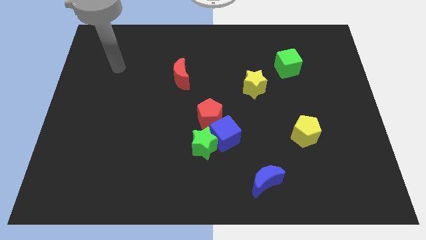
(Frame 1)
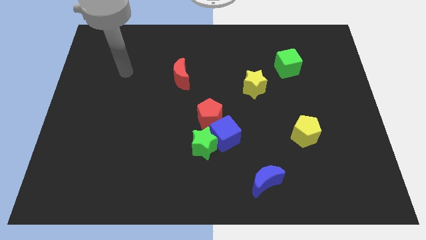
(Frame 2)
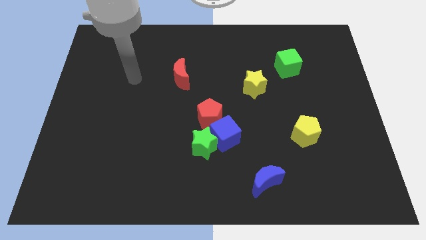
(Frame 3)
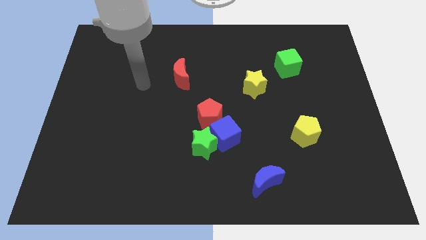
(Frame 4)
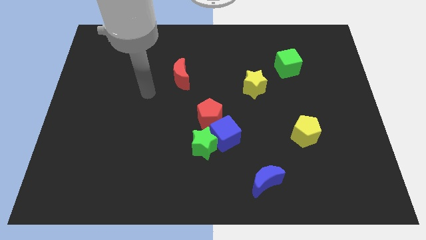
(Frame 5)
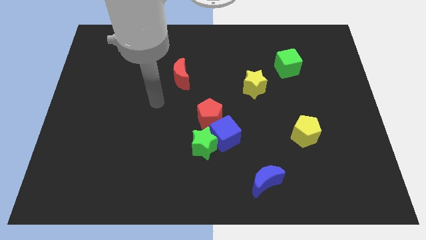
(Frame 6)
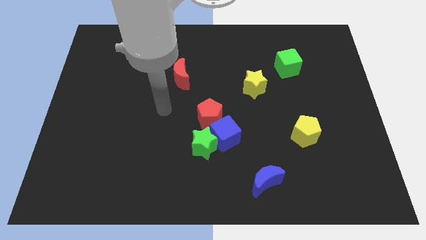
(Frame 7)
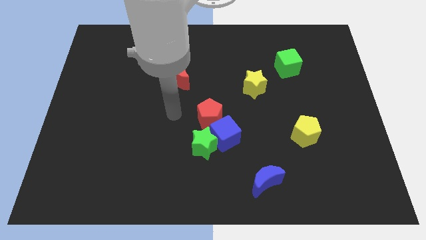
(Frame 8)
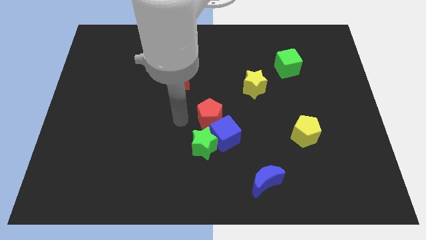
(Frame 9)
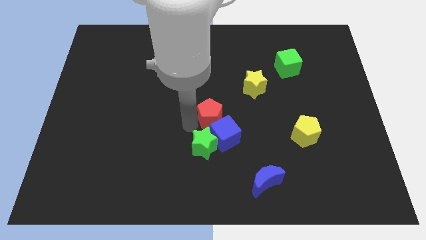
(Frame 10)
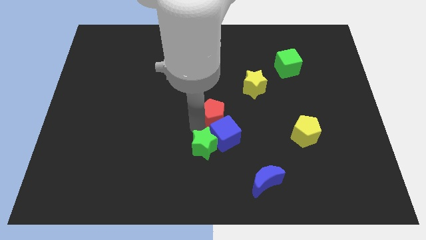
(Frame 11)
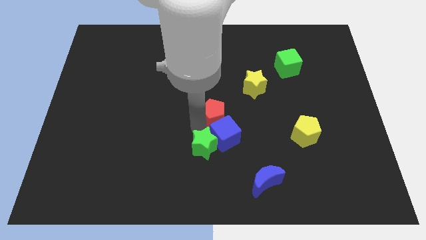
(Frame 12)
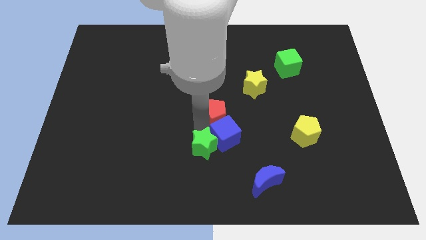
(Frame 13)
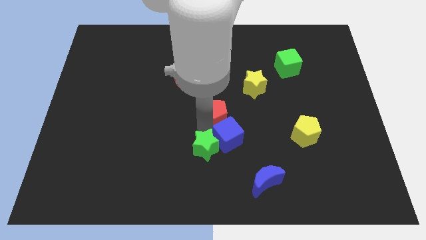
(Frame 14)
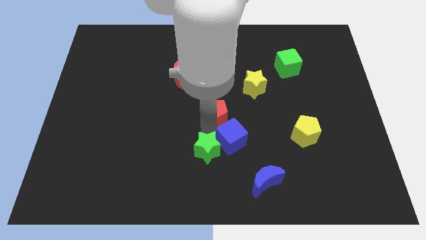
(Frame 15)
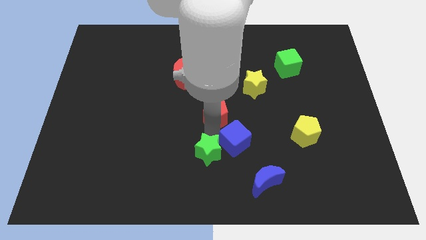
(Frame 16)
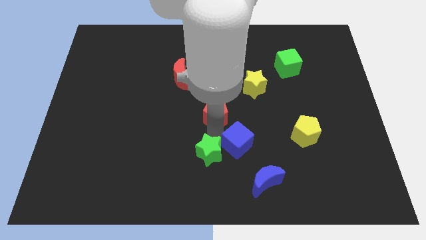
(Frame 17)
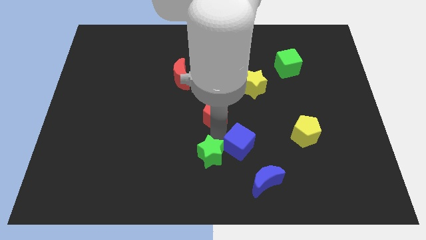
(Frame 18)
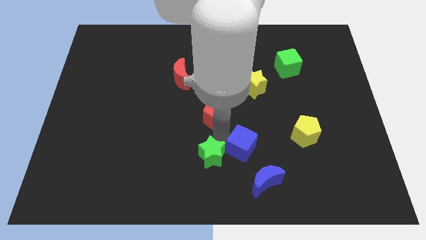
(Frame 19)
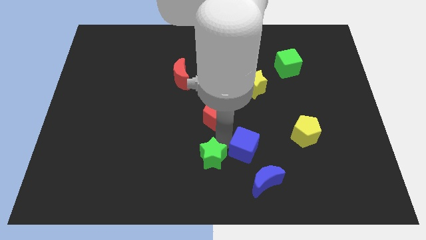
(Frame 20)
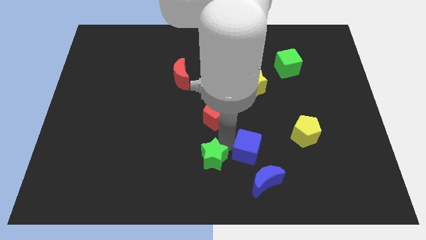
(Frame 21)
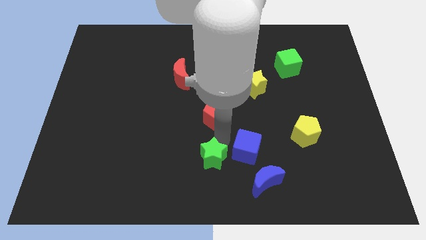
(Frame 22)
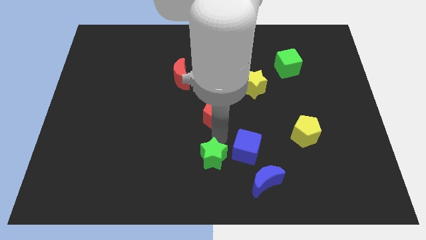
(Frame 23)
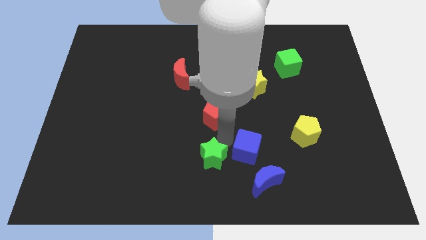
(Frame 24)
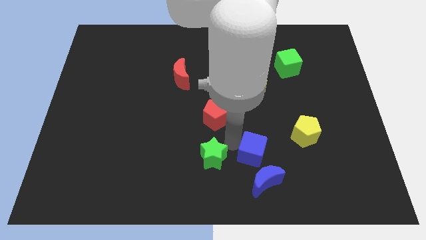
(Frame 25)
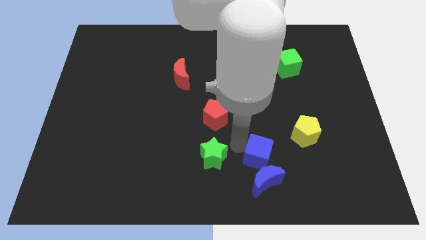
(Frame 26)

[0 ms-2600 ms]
move the blue cube away from the green star and red pentagon

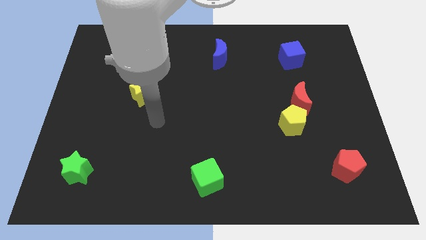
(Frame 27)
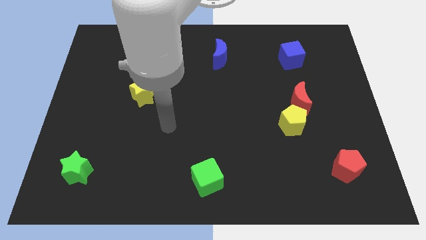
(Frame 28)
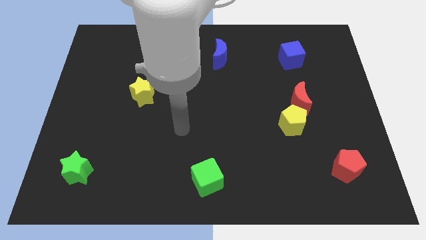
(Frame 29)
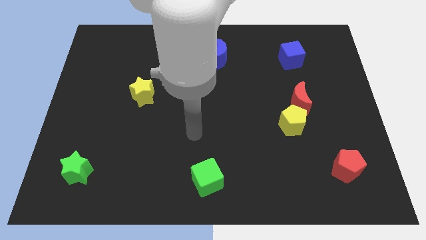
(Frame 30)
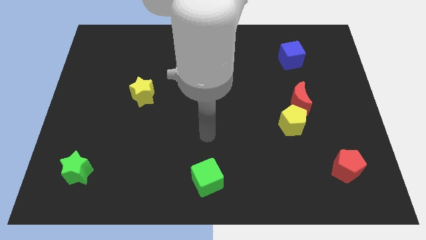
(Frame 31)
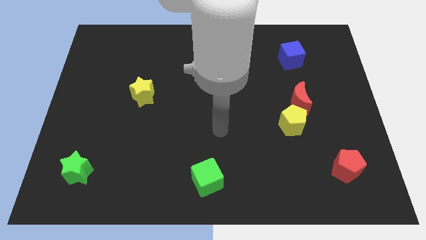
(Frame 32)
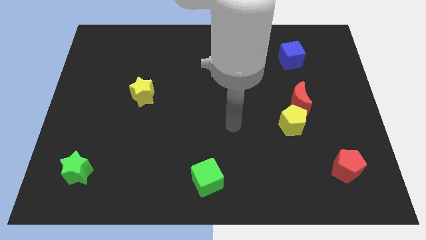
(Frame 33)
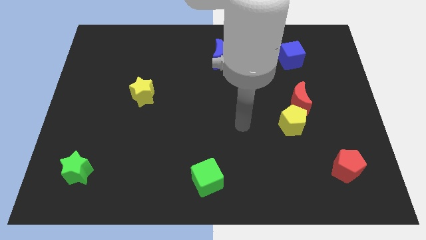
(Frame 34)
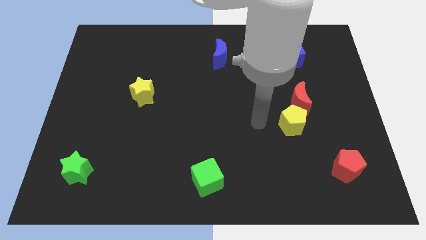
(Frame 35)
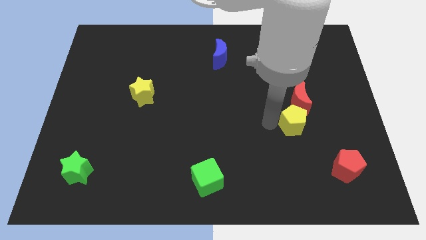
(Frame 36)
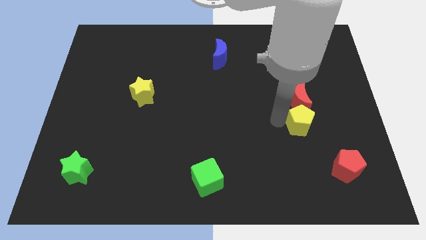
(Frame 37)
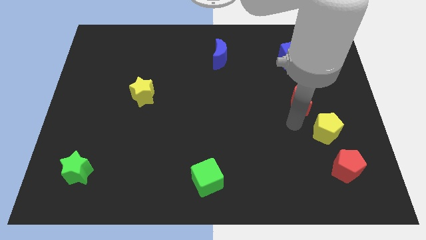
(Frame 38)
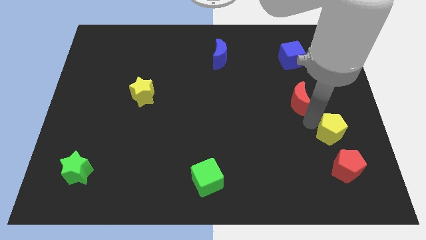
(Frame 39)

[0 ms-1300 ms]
move the red moon away from the yellow pentagon

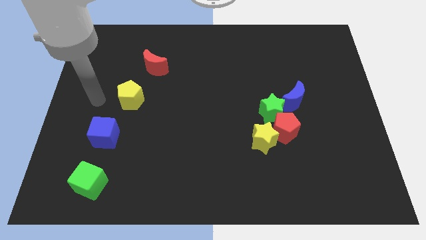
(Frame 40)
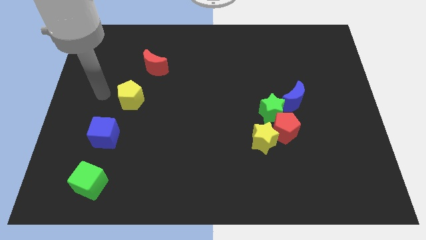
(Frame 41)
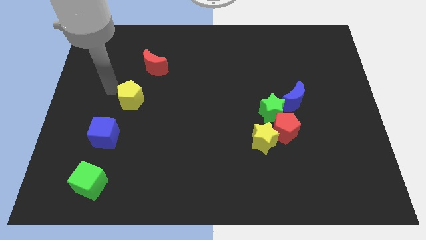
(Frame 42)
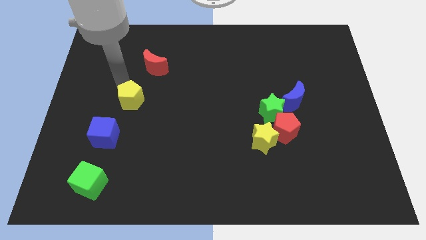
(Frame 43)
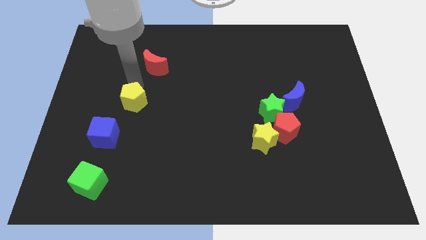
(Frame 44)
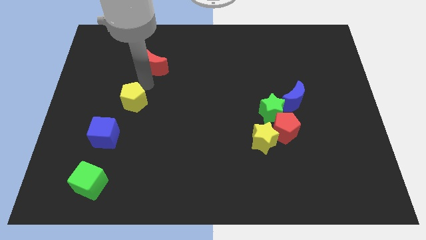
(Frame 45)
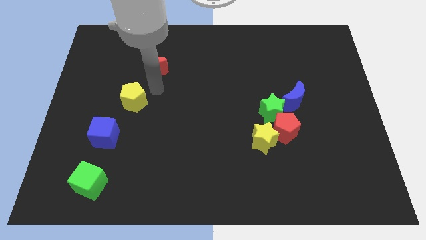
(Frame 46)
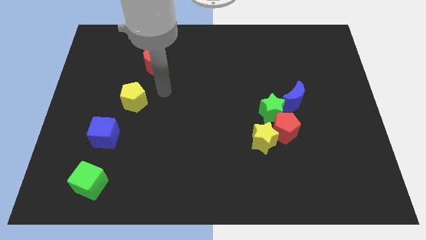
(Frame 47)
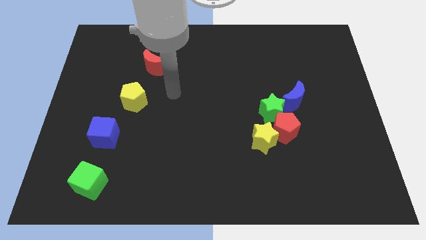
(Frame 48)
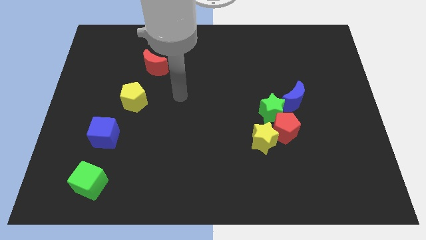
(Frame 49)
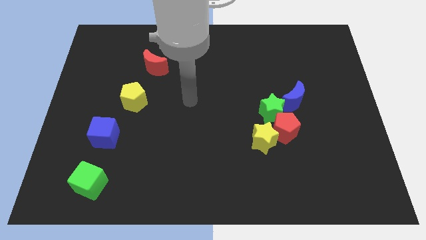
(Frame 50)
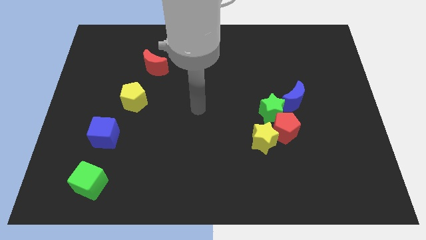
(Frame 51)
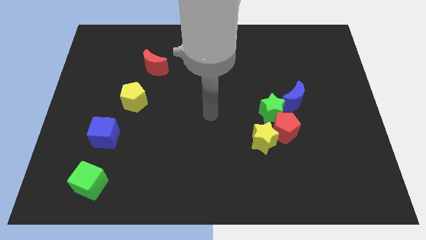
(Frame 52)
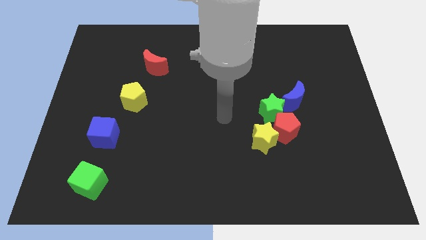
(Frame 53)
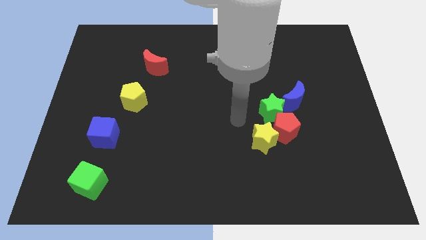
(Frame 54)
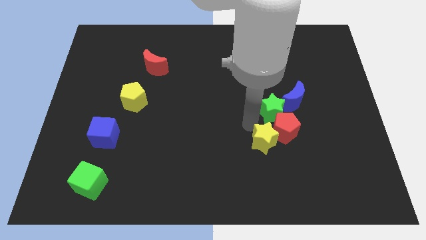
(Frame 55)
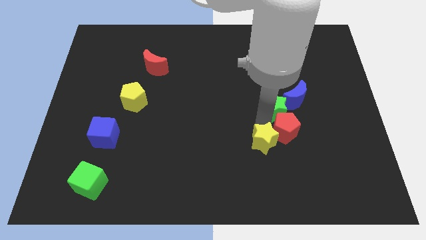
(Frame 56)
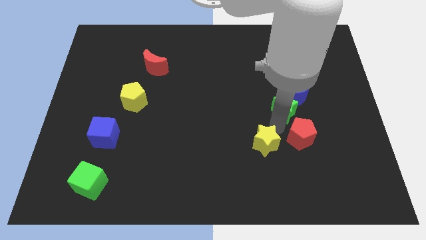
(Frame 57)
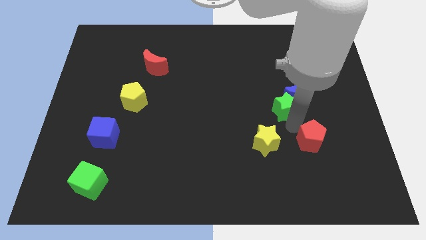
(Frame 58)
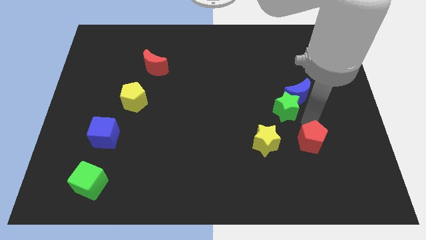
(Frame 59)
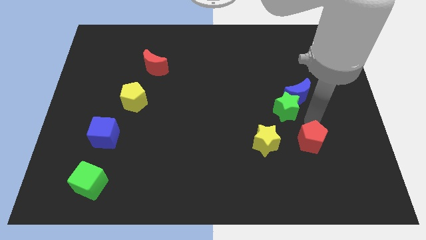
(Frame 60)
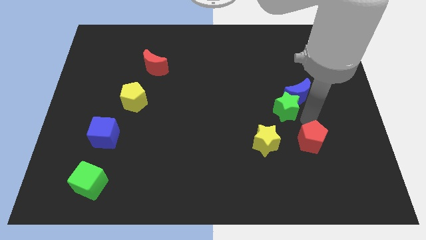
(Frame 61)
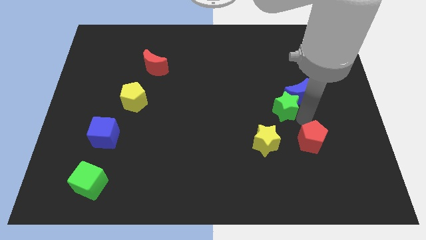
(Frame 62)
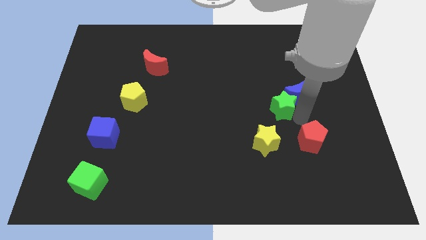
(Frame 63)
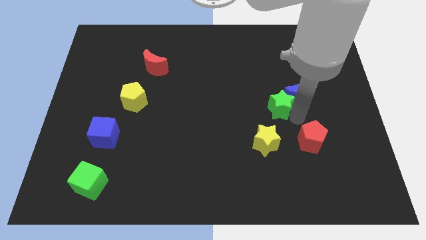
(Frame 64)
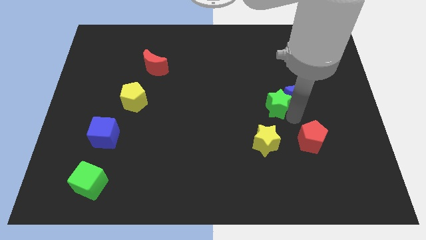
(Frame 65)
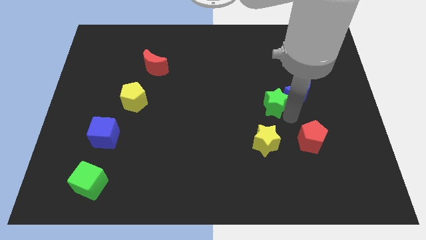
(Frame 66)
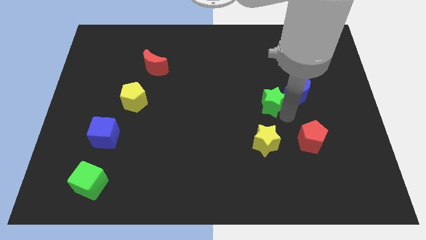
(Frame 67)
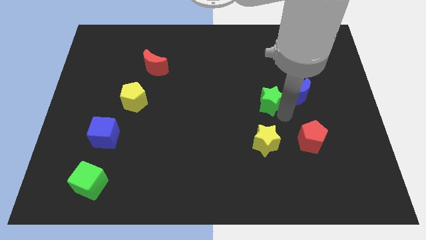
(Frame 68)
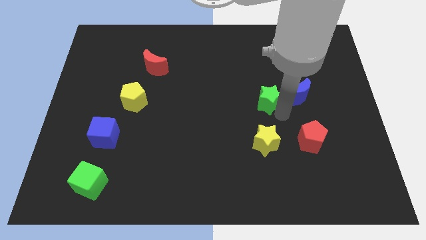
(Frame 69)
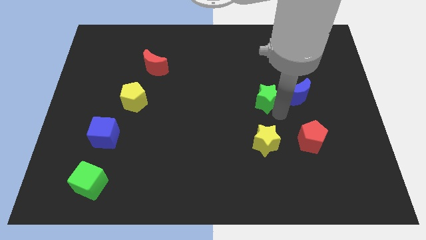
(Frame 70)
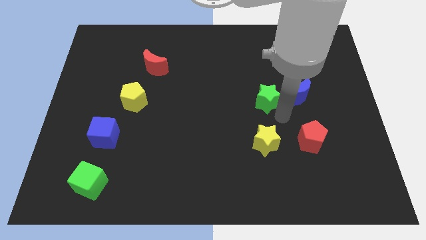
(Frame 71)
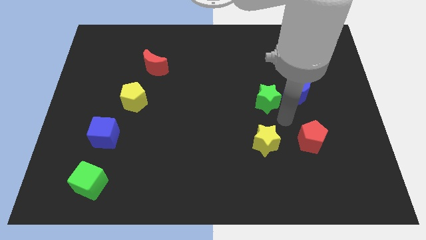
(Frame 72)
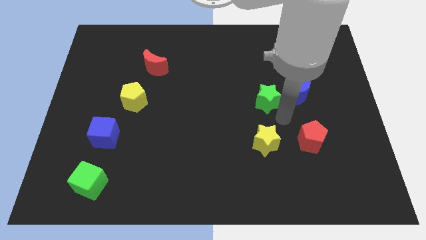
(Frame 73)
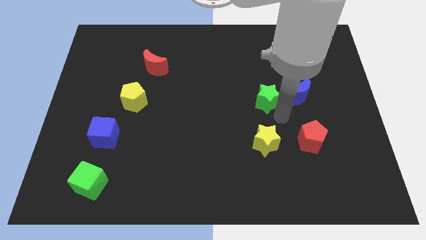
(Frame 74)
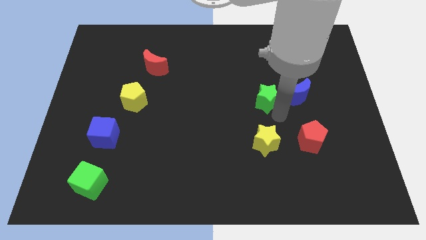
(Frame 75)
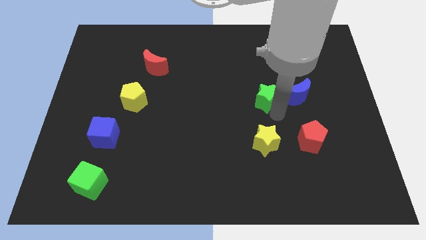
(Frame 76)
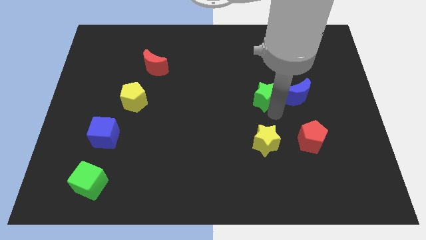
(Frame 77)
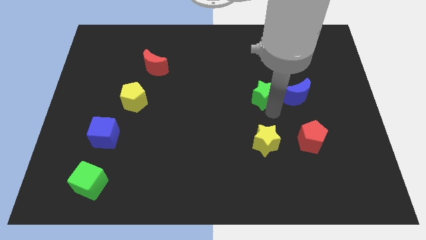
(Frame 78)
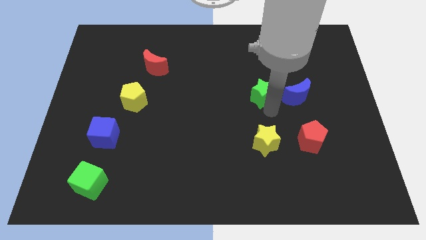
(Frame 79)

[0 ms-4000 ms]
pull the green star apart from the group

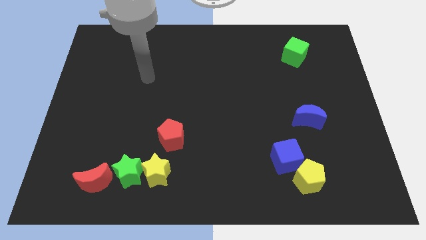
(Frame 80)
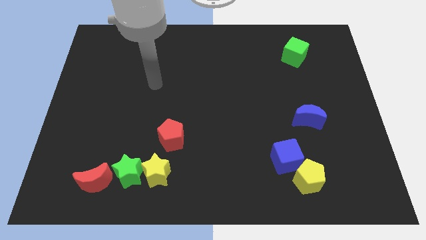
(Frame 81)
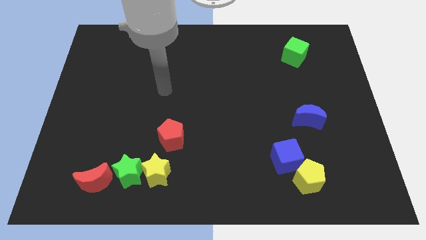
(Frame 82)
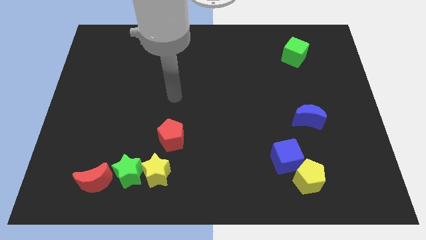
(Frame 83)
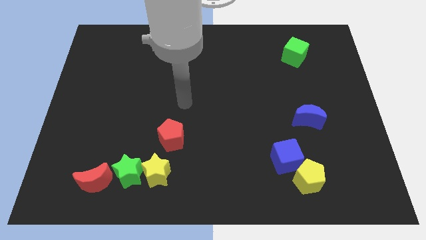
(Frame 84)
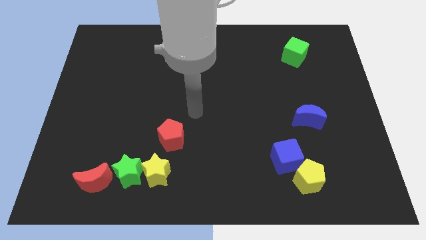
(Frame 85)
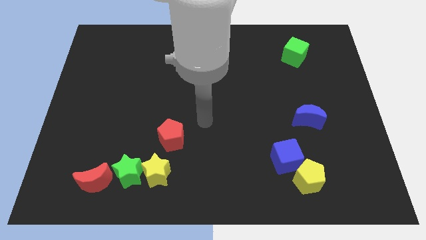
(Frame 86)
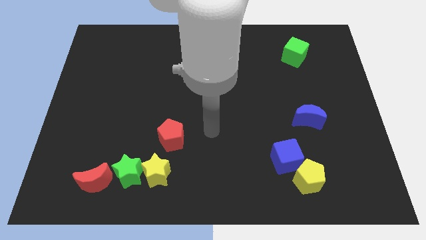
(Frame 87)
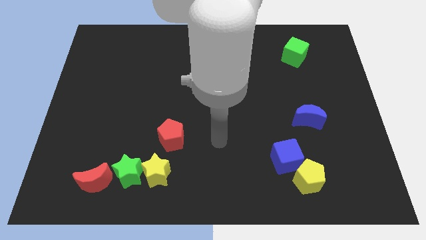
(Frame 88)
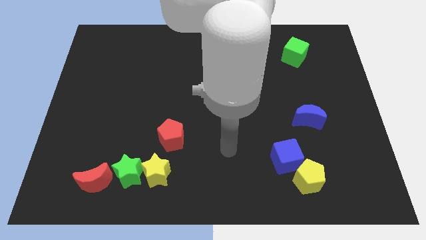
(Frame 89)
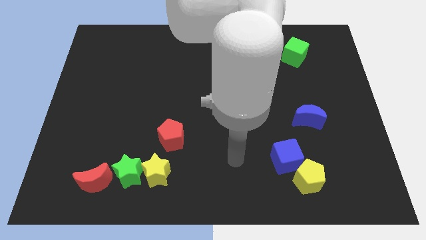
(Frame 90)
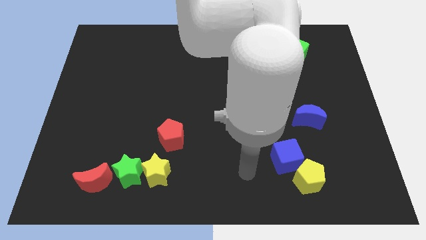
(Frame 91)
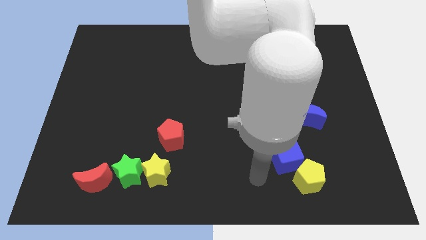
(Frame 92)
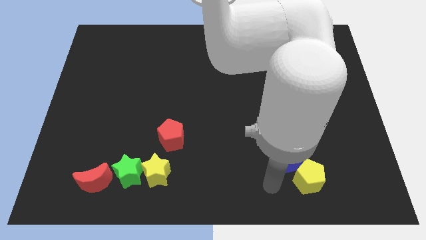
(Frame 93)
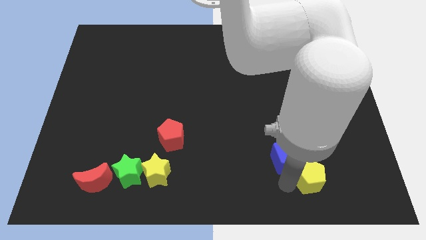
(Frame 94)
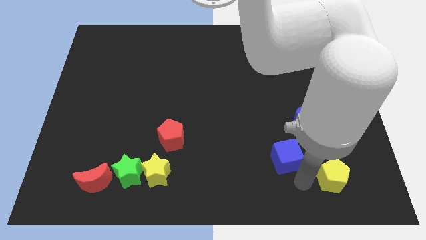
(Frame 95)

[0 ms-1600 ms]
pull the blue cube apart from the yellow pentagon
